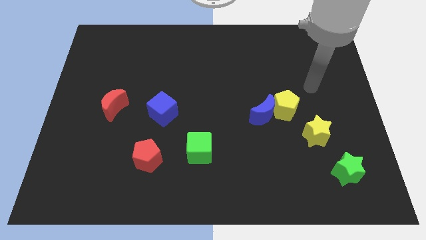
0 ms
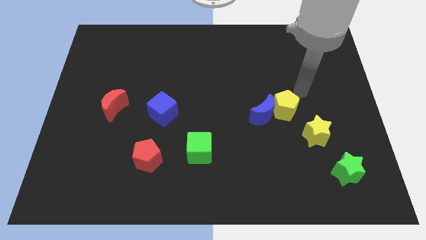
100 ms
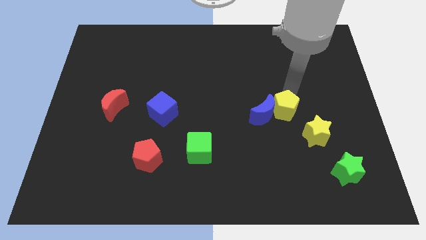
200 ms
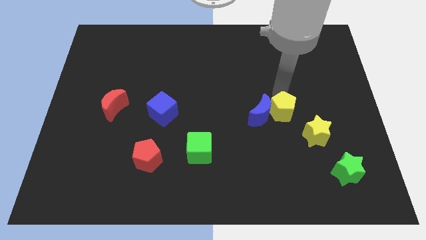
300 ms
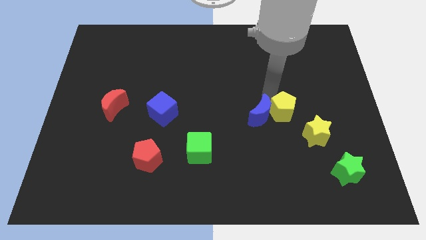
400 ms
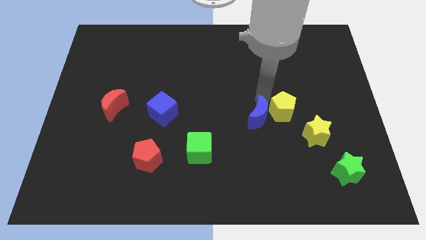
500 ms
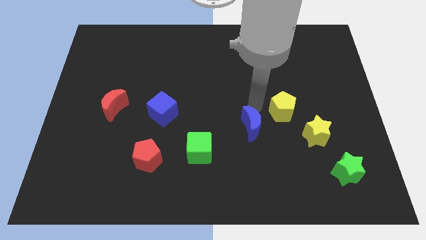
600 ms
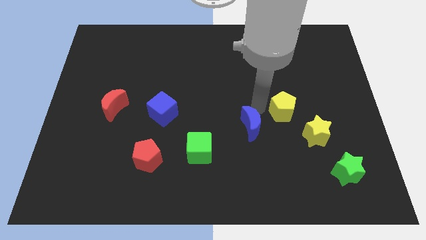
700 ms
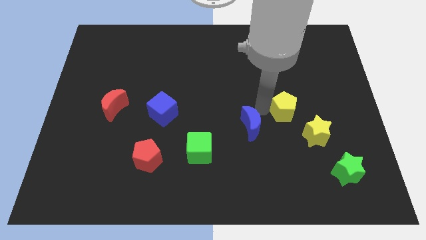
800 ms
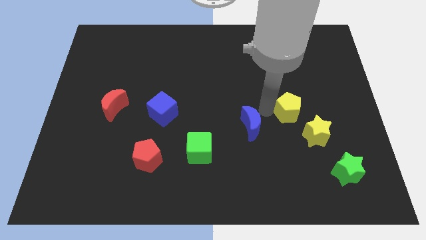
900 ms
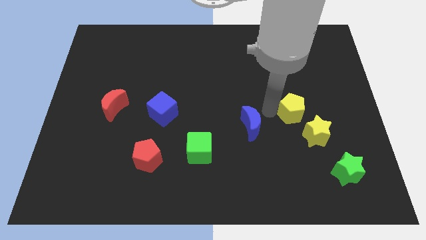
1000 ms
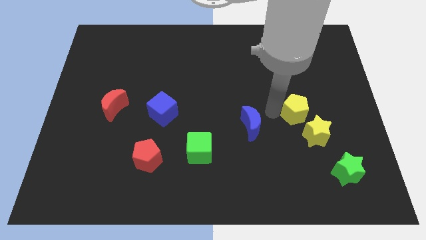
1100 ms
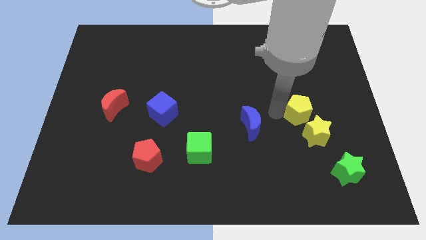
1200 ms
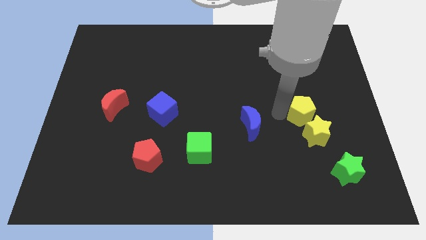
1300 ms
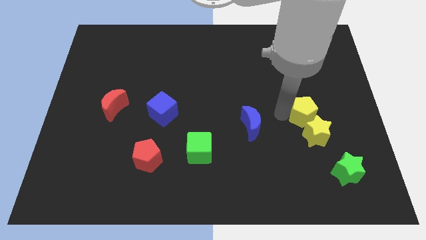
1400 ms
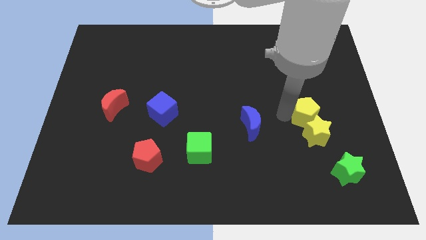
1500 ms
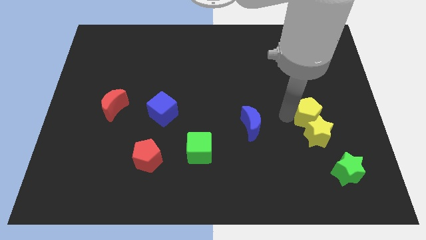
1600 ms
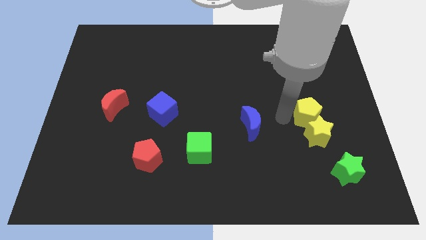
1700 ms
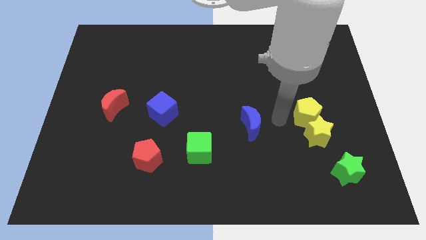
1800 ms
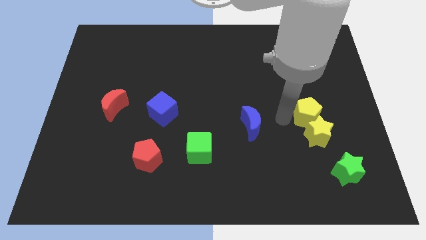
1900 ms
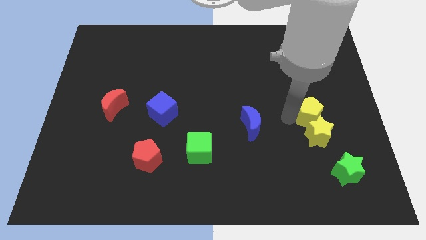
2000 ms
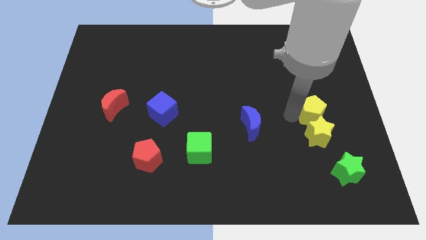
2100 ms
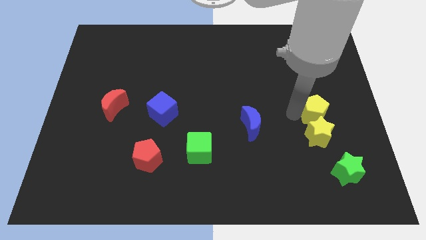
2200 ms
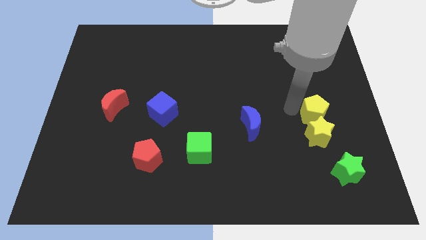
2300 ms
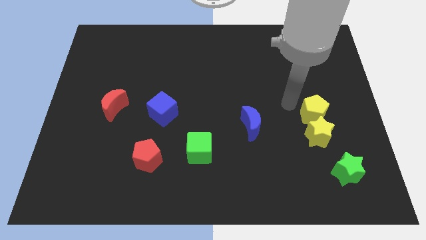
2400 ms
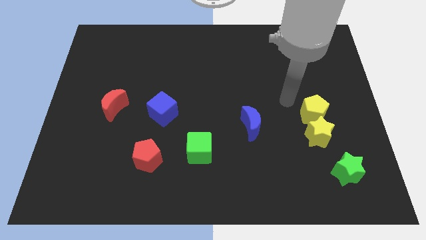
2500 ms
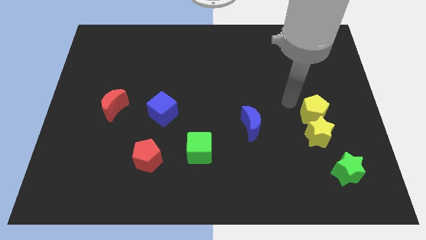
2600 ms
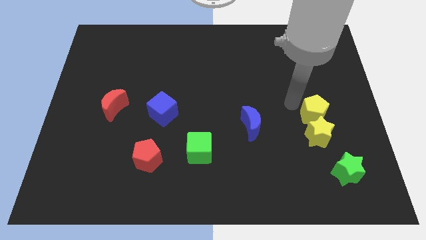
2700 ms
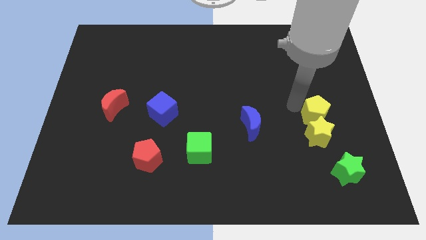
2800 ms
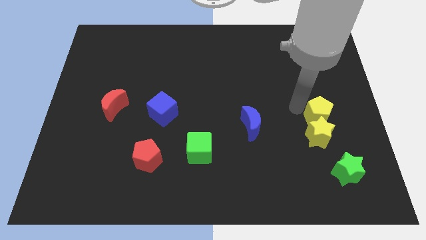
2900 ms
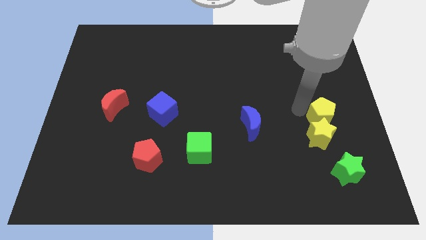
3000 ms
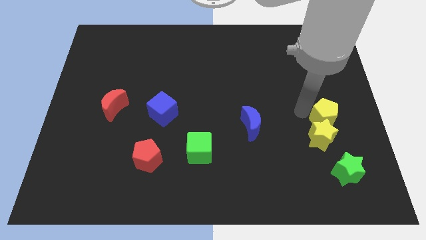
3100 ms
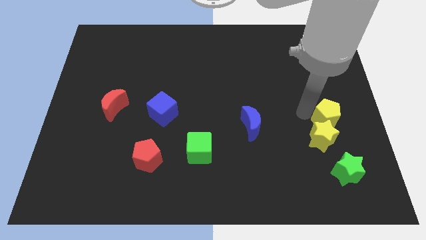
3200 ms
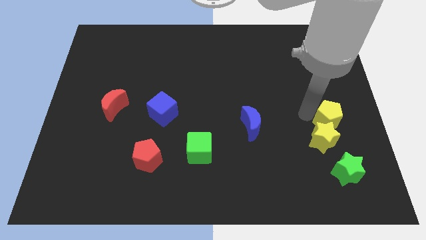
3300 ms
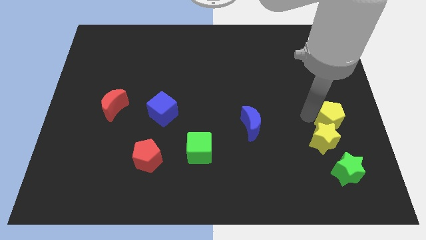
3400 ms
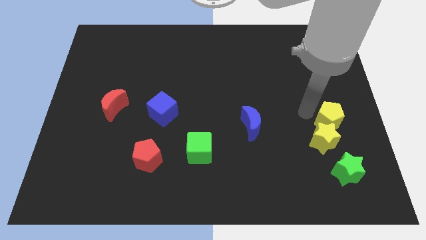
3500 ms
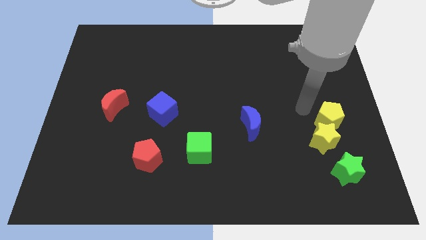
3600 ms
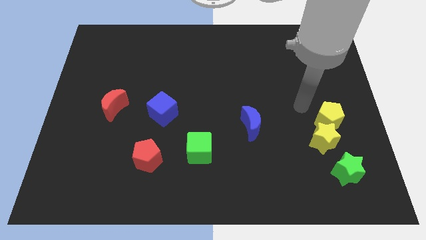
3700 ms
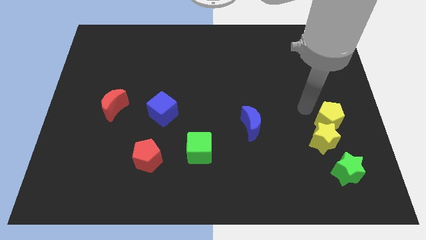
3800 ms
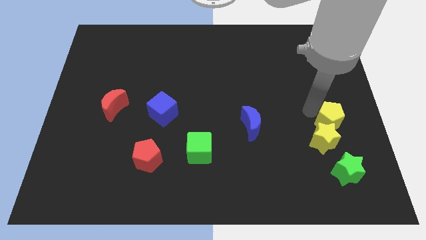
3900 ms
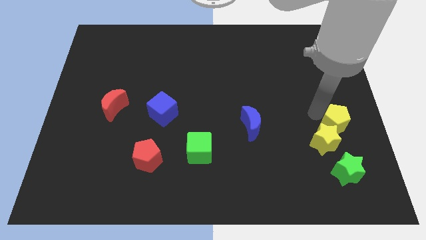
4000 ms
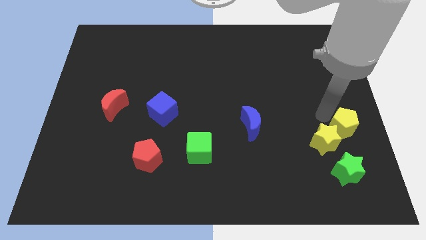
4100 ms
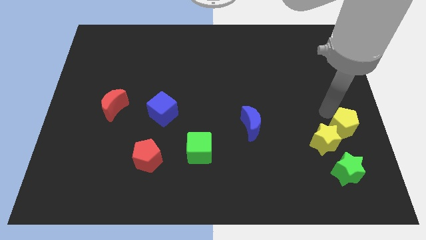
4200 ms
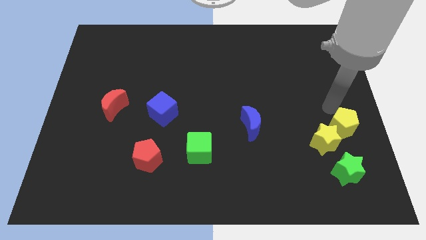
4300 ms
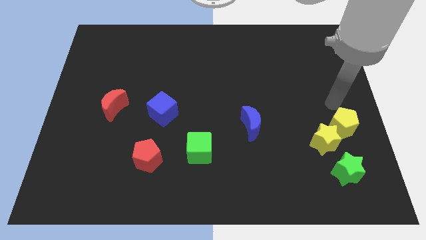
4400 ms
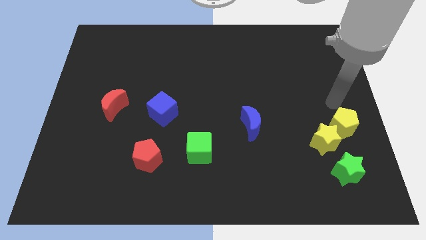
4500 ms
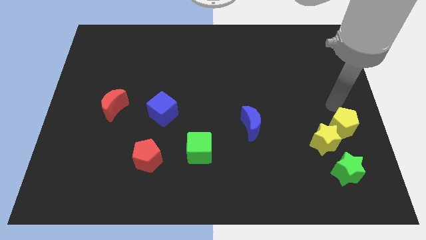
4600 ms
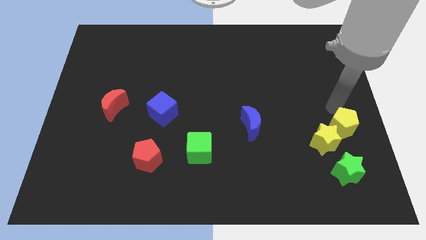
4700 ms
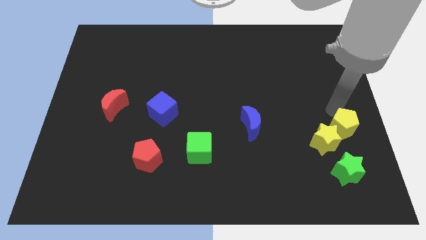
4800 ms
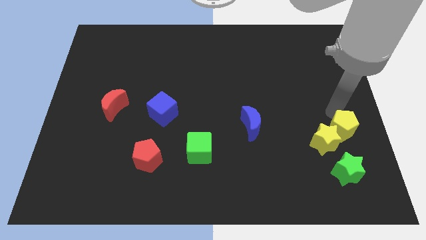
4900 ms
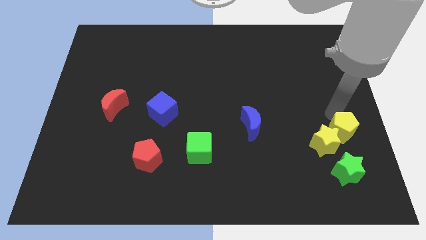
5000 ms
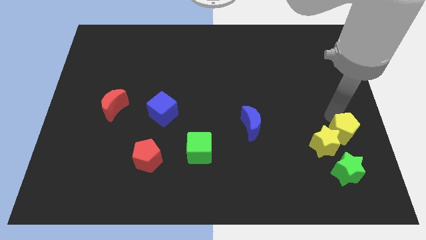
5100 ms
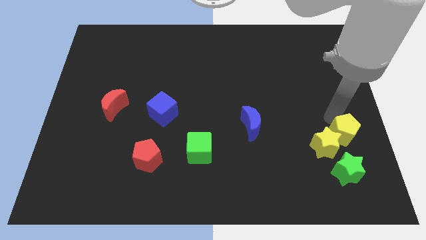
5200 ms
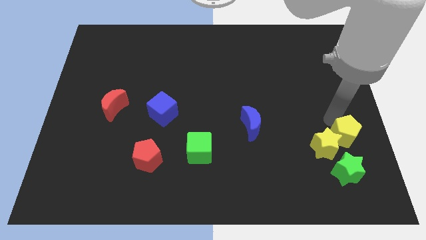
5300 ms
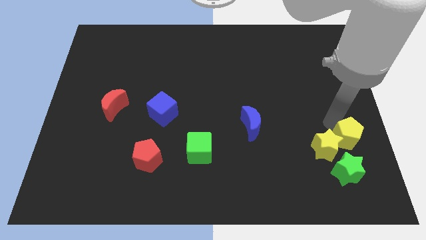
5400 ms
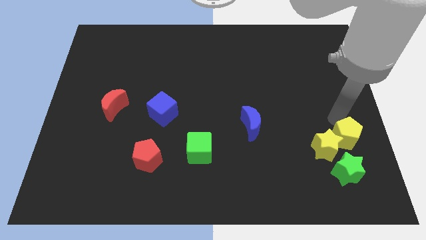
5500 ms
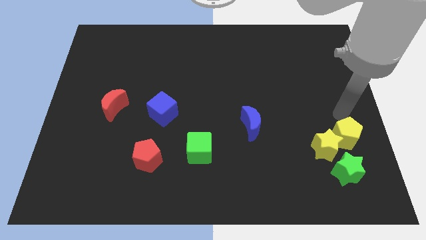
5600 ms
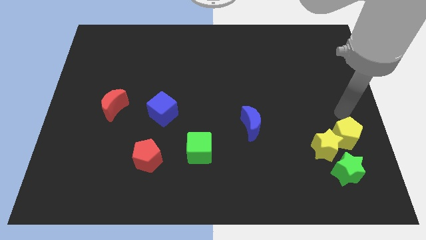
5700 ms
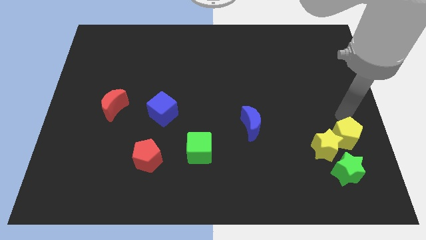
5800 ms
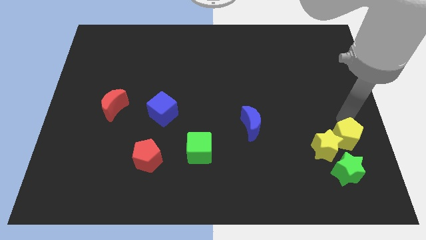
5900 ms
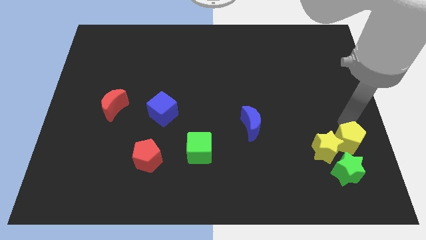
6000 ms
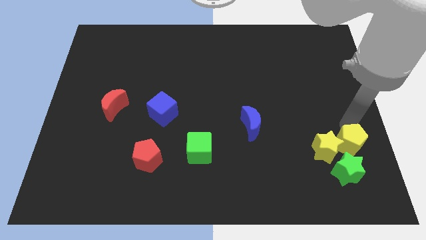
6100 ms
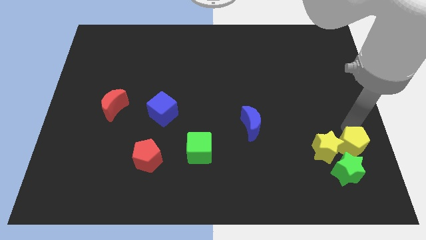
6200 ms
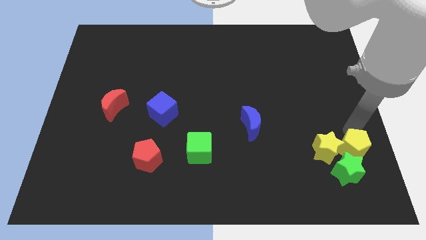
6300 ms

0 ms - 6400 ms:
move the yellow pentagon close to the green star
